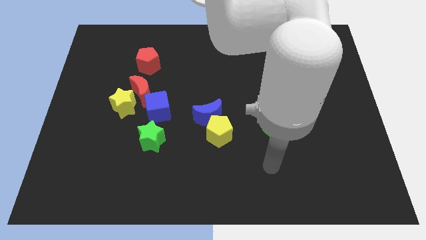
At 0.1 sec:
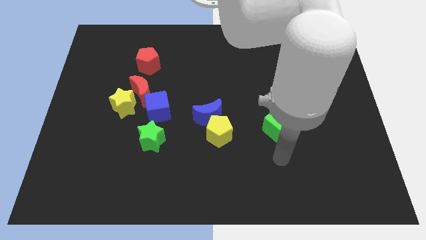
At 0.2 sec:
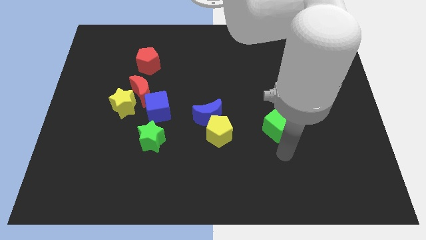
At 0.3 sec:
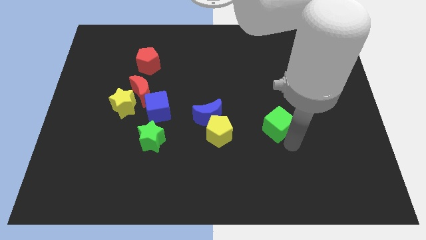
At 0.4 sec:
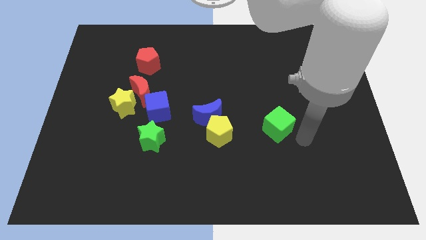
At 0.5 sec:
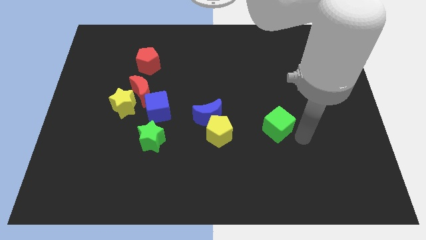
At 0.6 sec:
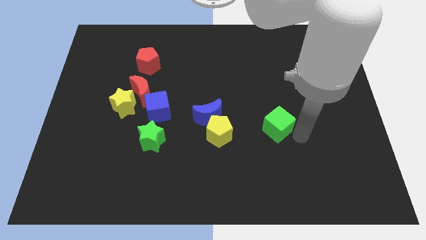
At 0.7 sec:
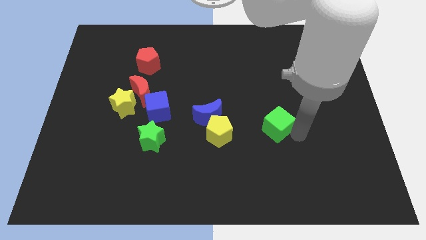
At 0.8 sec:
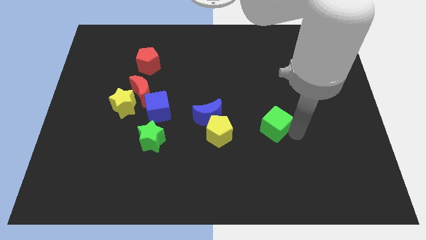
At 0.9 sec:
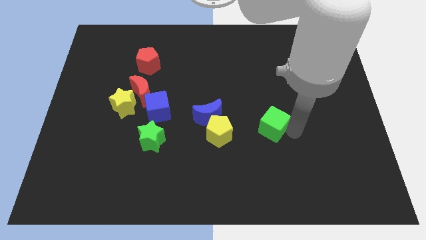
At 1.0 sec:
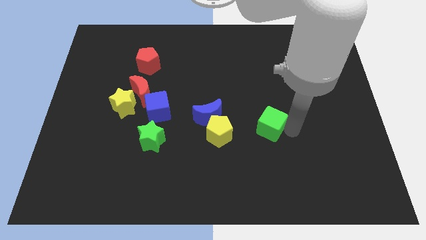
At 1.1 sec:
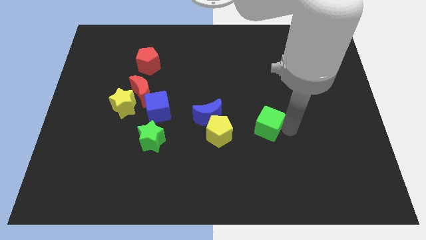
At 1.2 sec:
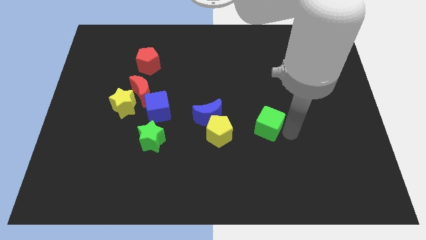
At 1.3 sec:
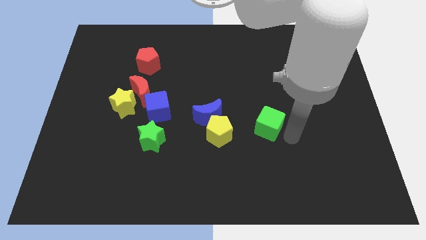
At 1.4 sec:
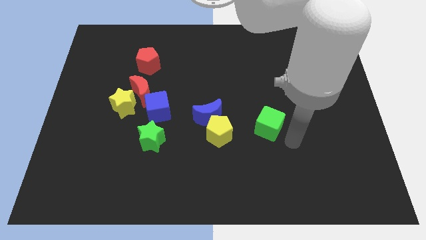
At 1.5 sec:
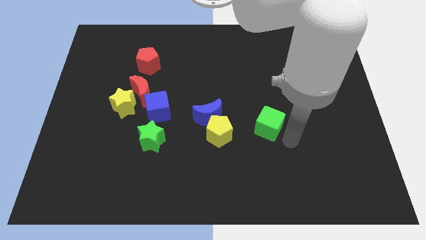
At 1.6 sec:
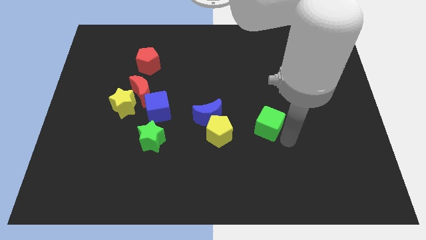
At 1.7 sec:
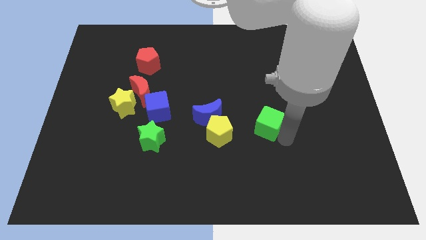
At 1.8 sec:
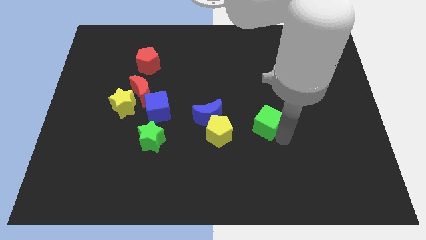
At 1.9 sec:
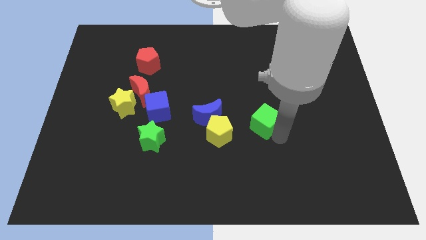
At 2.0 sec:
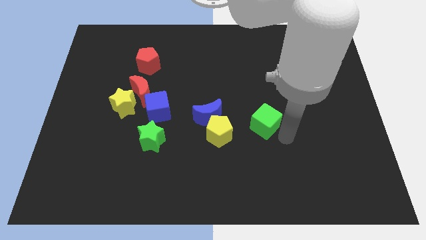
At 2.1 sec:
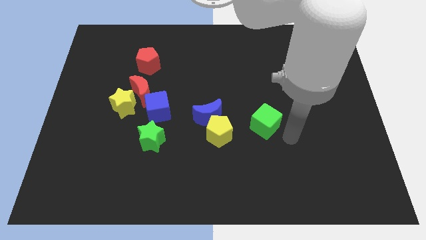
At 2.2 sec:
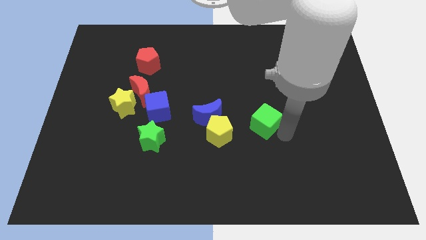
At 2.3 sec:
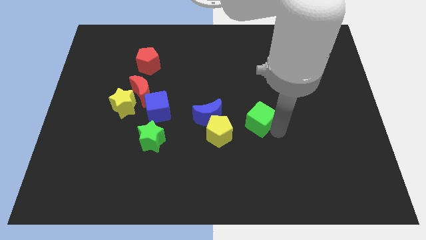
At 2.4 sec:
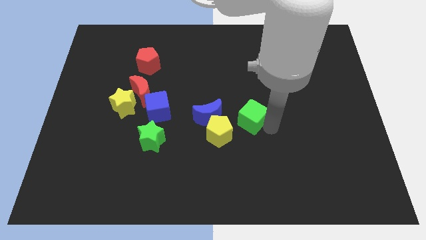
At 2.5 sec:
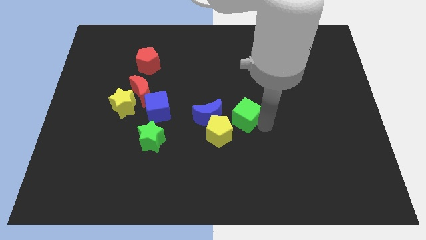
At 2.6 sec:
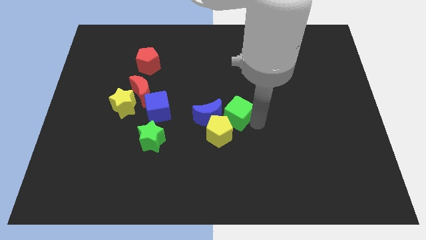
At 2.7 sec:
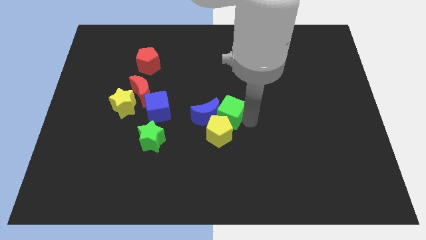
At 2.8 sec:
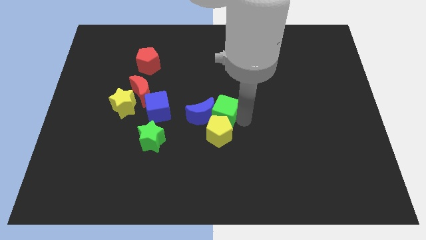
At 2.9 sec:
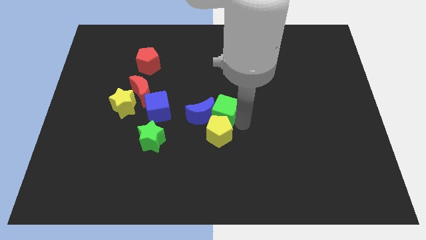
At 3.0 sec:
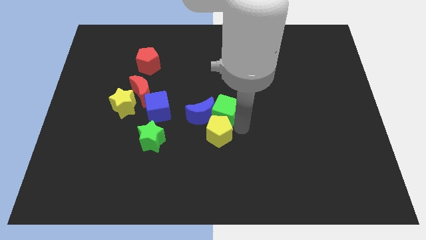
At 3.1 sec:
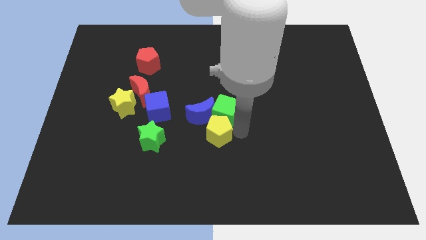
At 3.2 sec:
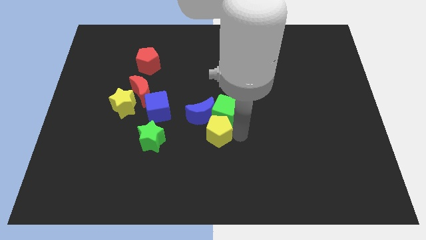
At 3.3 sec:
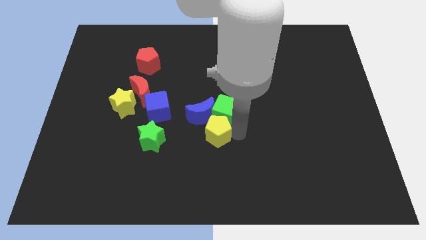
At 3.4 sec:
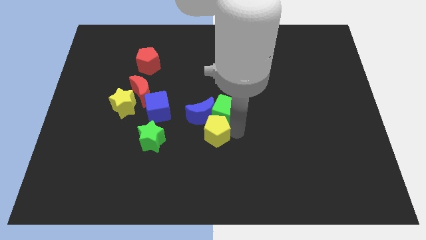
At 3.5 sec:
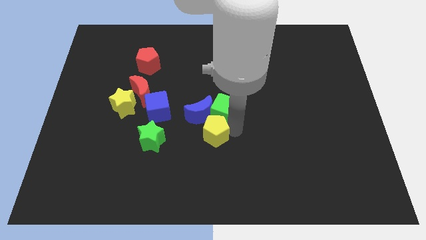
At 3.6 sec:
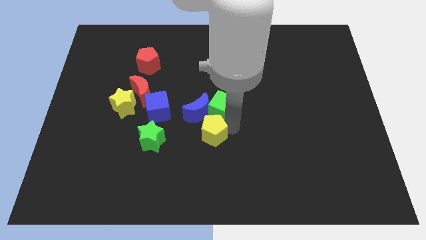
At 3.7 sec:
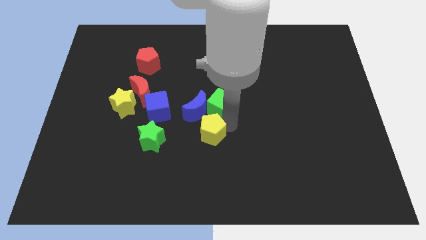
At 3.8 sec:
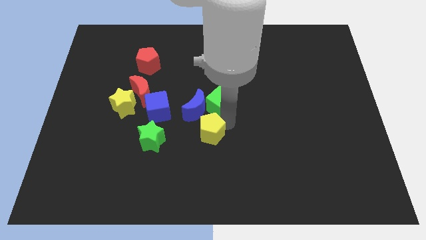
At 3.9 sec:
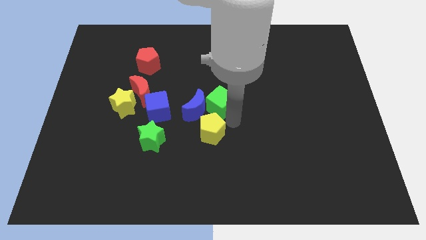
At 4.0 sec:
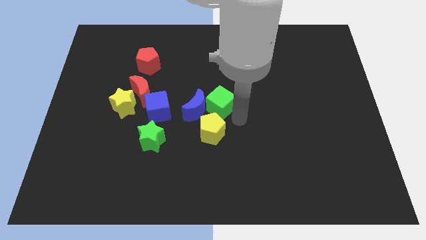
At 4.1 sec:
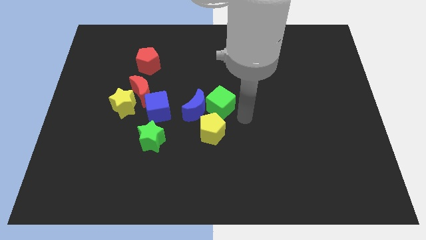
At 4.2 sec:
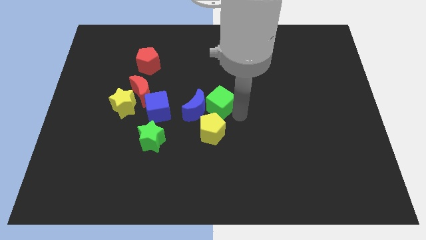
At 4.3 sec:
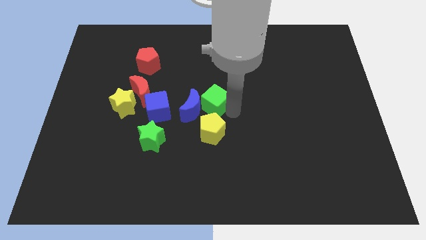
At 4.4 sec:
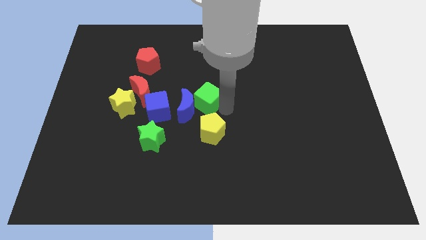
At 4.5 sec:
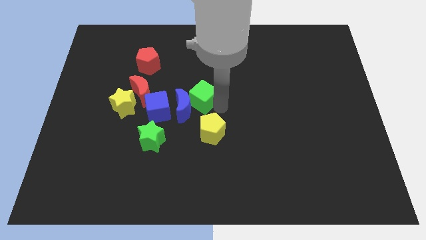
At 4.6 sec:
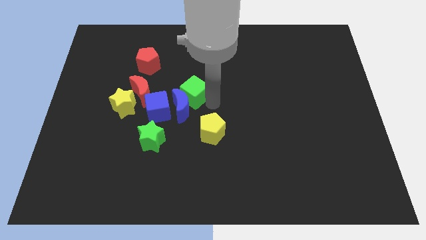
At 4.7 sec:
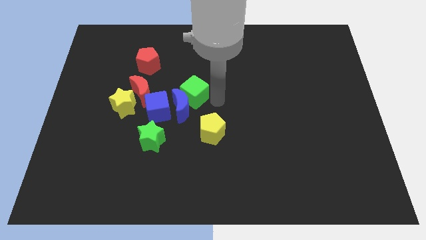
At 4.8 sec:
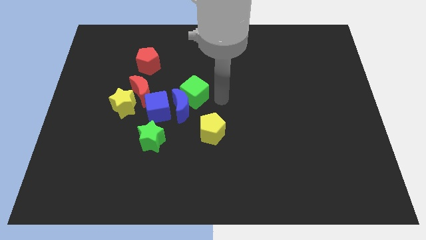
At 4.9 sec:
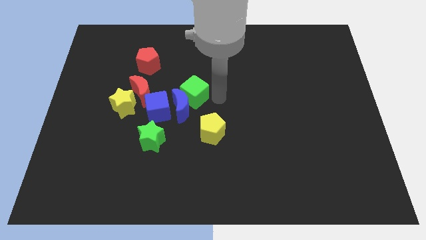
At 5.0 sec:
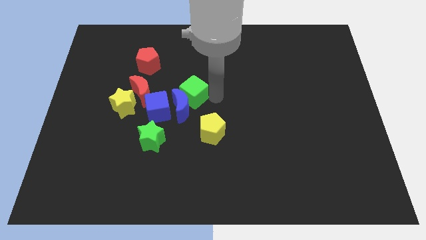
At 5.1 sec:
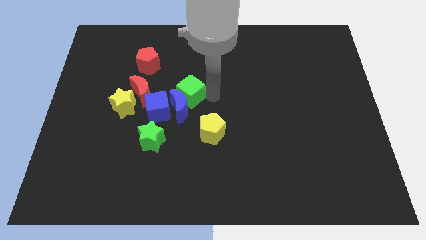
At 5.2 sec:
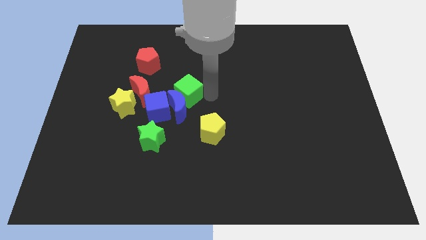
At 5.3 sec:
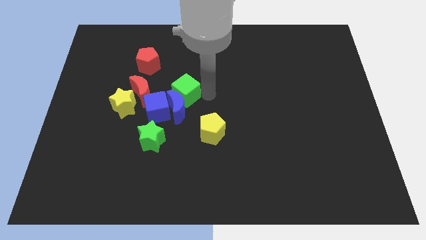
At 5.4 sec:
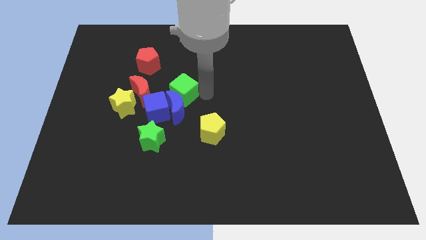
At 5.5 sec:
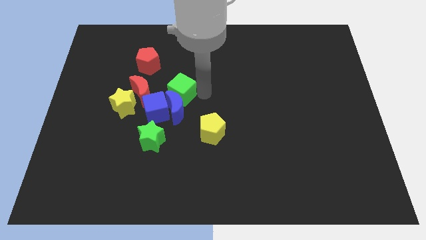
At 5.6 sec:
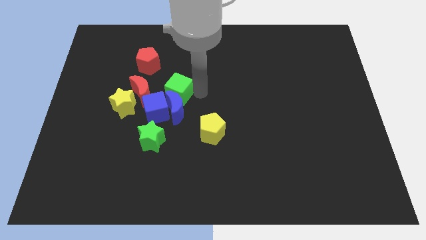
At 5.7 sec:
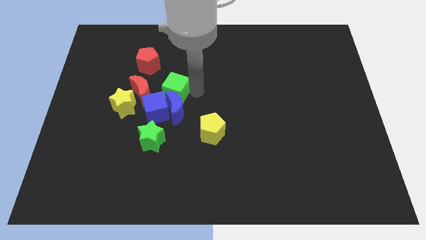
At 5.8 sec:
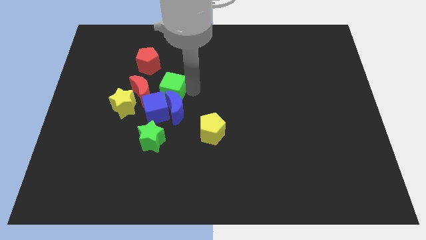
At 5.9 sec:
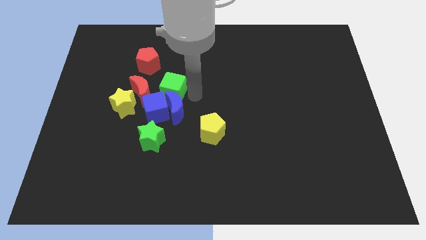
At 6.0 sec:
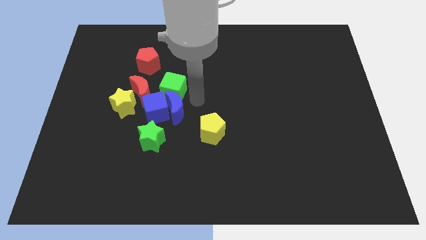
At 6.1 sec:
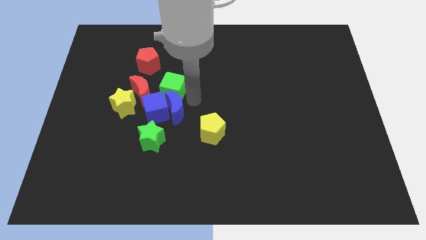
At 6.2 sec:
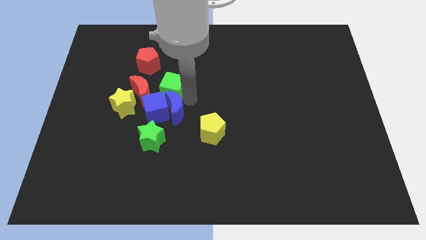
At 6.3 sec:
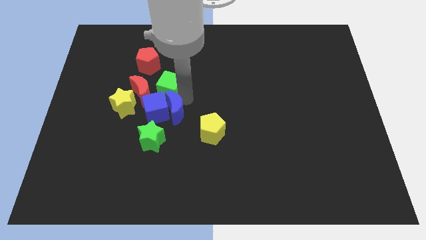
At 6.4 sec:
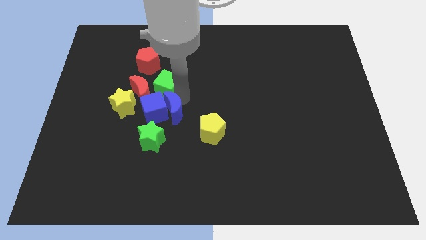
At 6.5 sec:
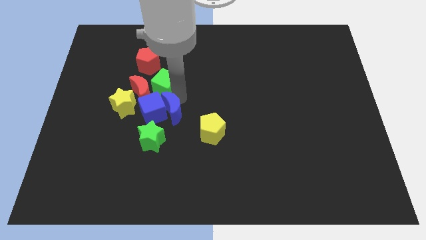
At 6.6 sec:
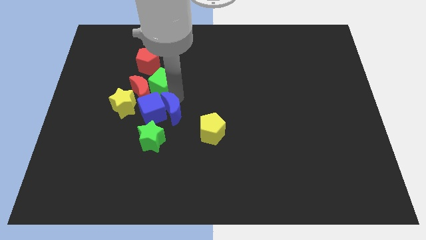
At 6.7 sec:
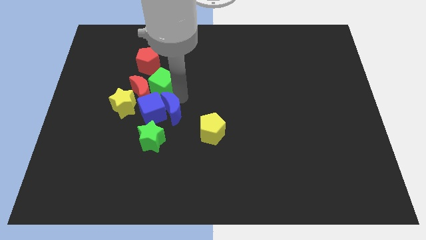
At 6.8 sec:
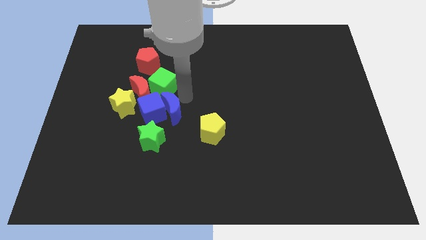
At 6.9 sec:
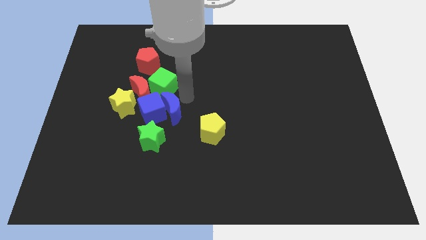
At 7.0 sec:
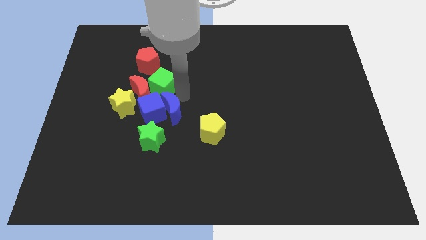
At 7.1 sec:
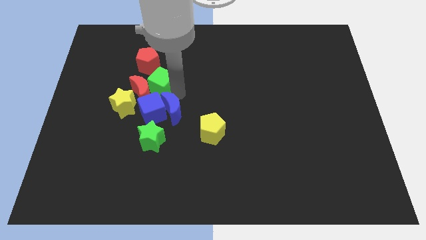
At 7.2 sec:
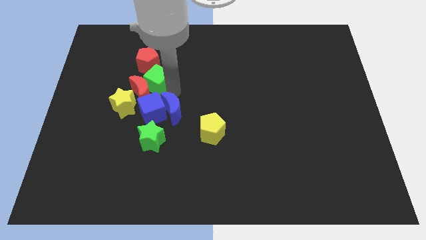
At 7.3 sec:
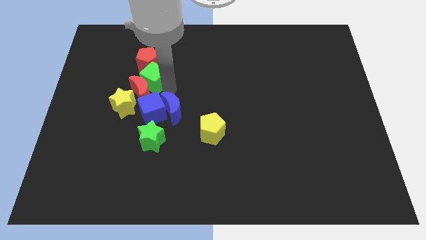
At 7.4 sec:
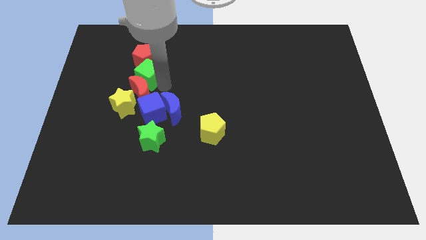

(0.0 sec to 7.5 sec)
push the green cube to the top of the yellow star
